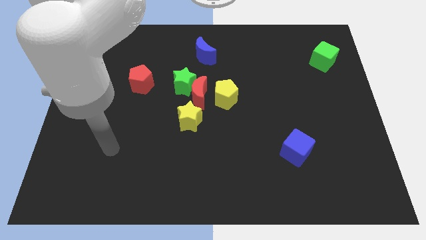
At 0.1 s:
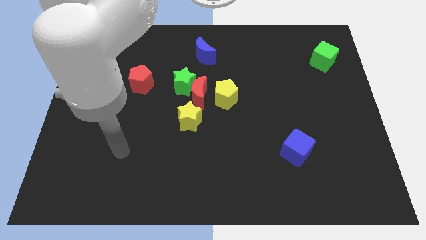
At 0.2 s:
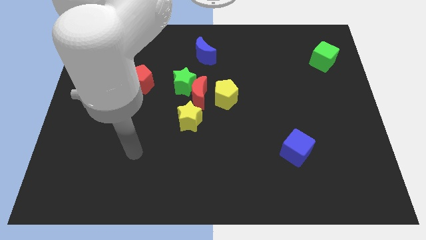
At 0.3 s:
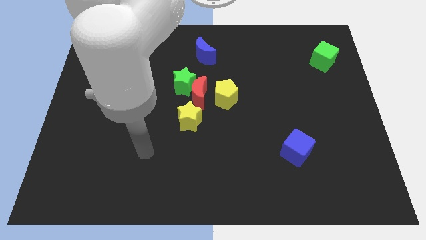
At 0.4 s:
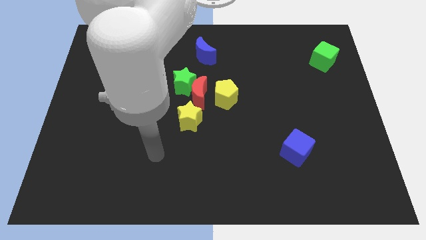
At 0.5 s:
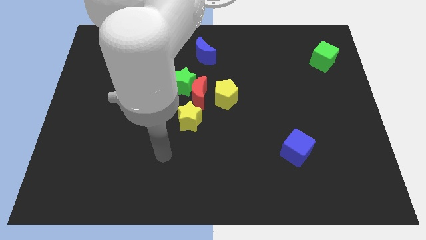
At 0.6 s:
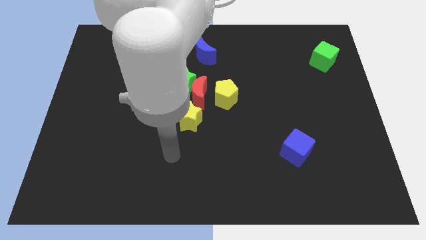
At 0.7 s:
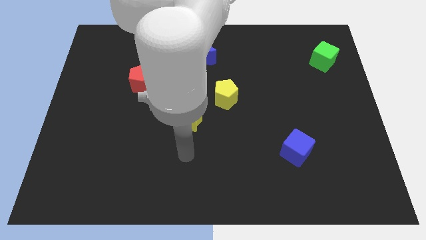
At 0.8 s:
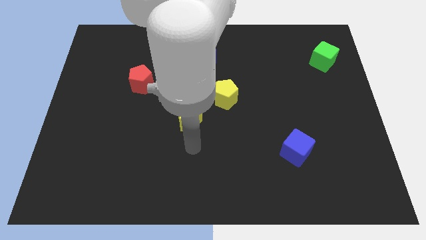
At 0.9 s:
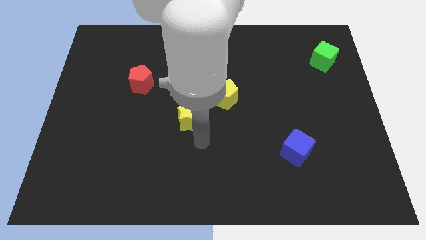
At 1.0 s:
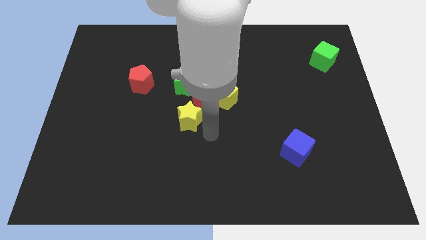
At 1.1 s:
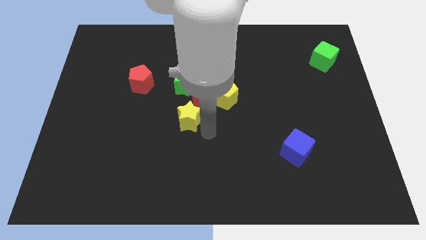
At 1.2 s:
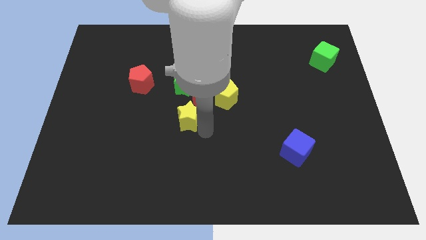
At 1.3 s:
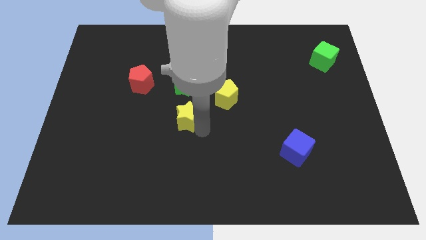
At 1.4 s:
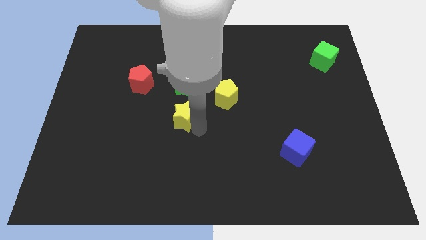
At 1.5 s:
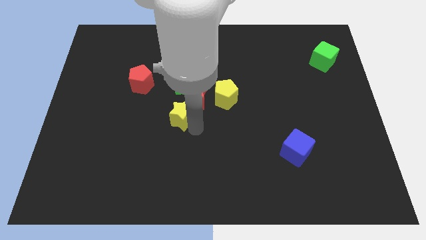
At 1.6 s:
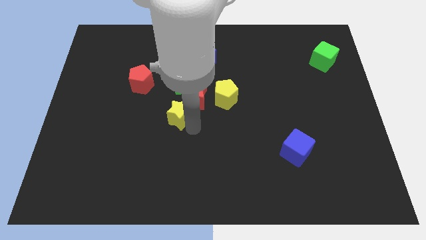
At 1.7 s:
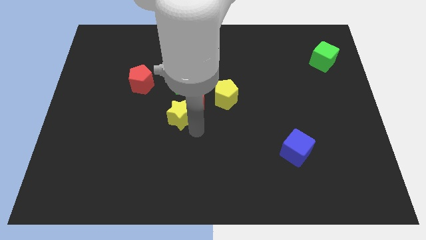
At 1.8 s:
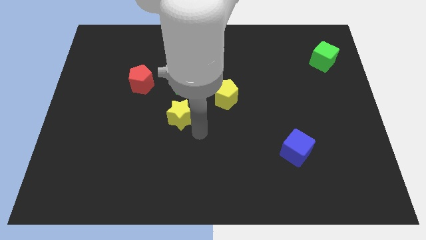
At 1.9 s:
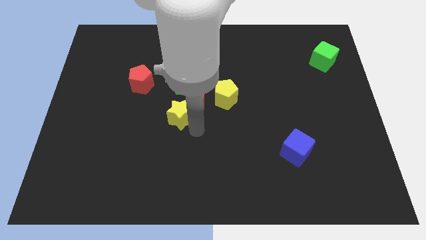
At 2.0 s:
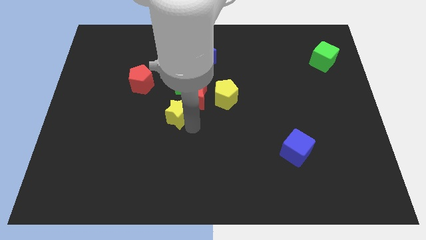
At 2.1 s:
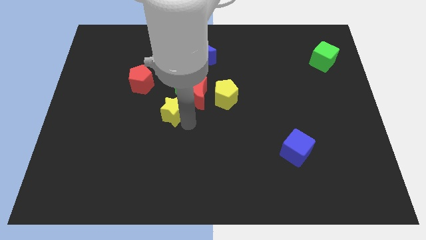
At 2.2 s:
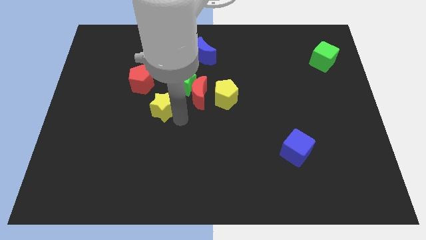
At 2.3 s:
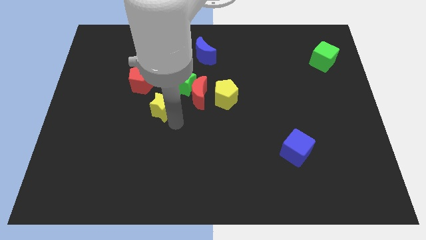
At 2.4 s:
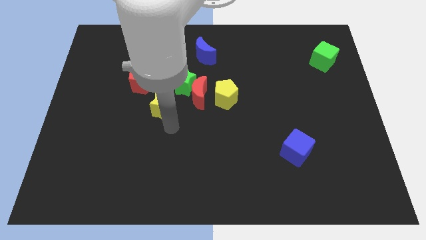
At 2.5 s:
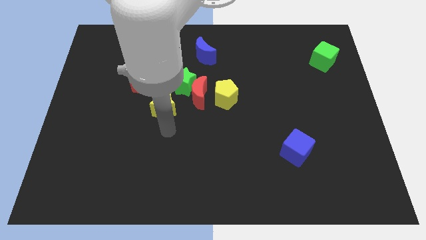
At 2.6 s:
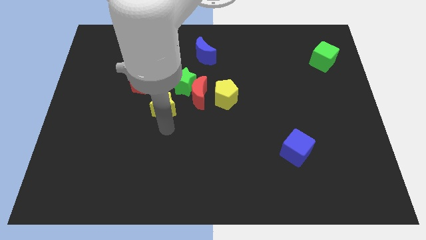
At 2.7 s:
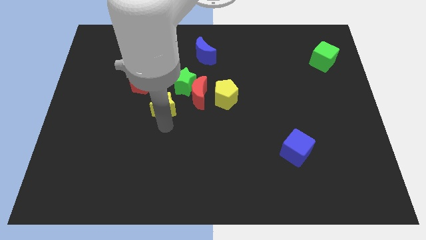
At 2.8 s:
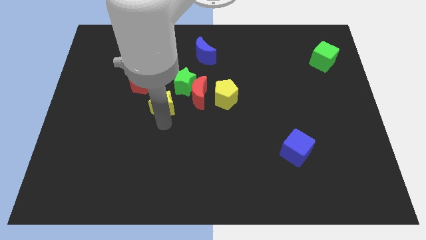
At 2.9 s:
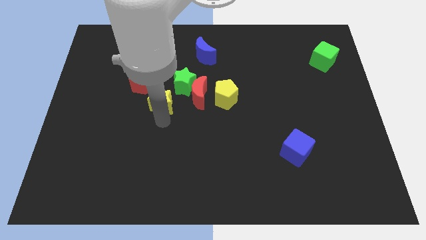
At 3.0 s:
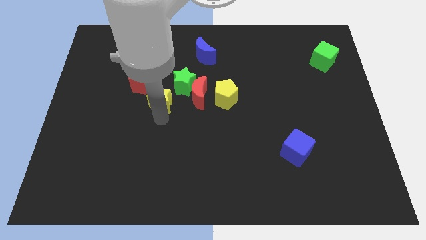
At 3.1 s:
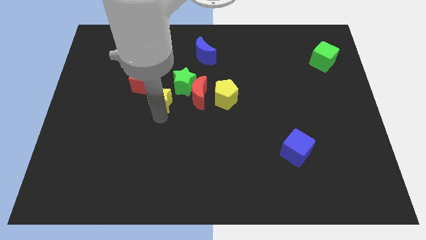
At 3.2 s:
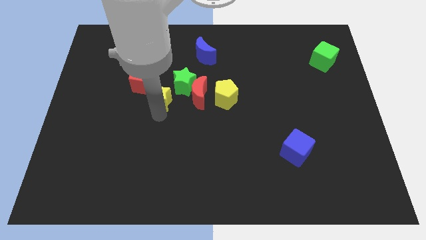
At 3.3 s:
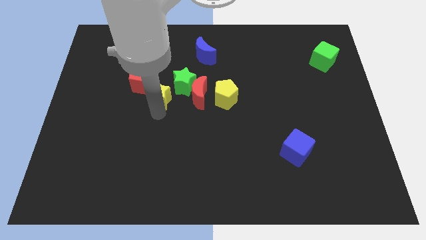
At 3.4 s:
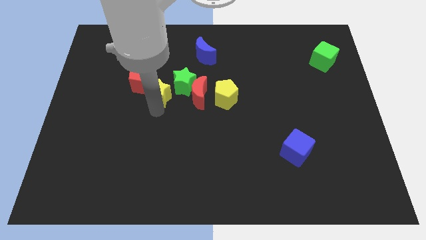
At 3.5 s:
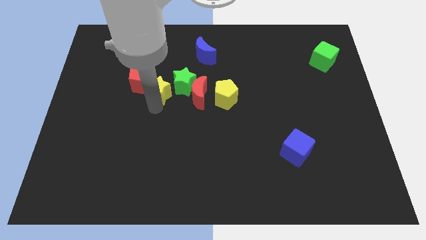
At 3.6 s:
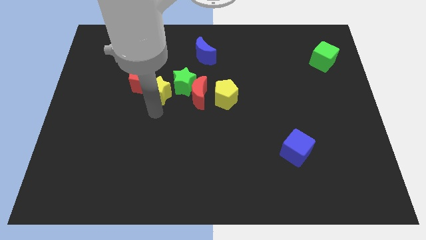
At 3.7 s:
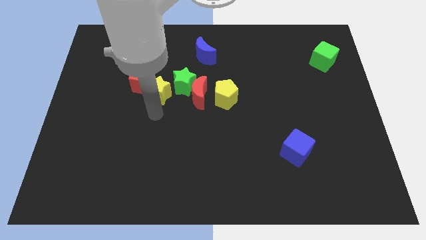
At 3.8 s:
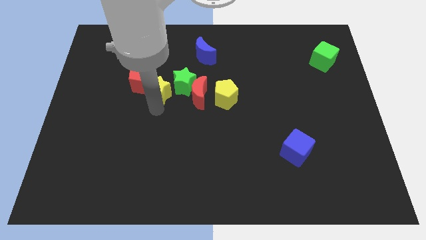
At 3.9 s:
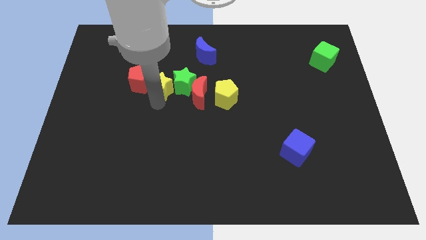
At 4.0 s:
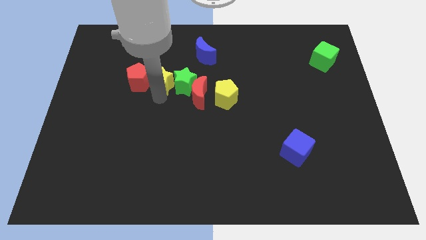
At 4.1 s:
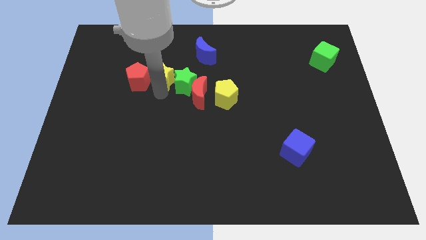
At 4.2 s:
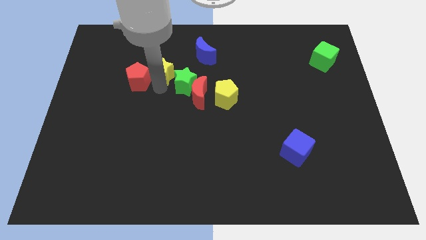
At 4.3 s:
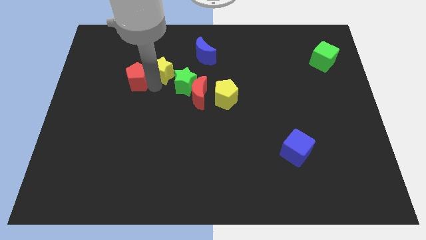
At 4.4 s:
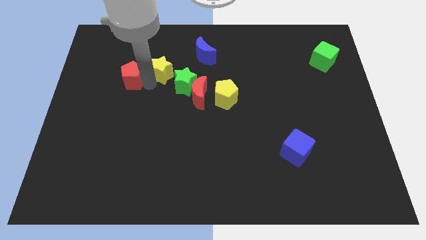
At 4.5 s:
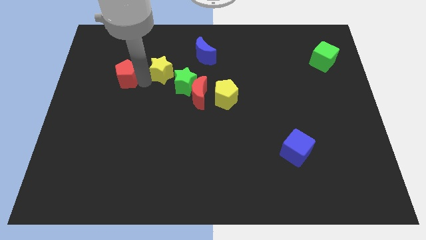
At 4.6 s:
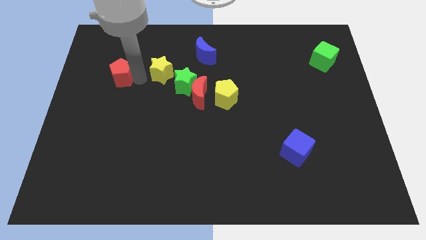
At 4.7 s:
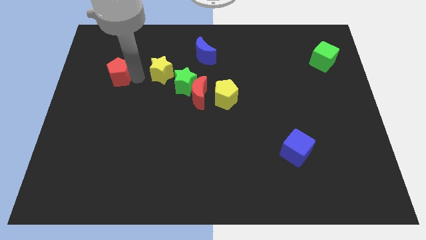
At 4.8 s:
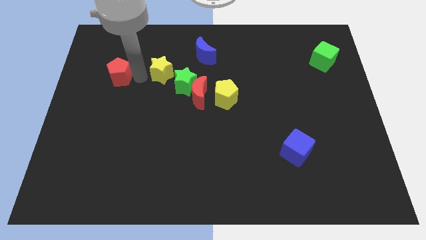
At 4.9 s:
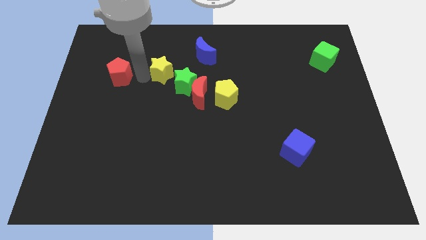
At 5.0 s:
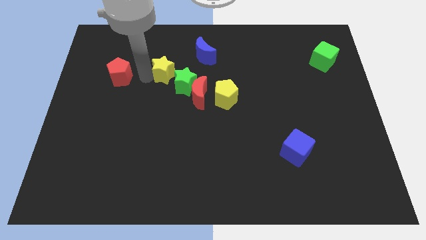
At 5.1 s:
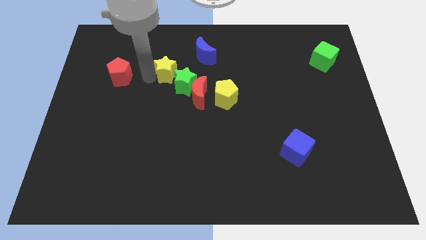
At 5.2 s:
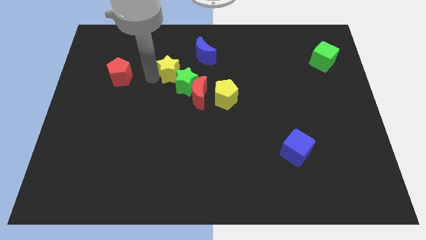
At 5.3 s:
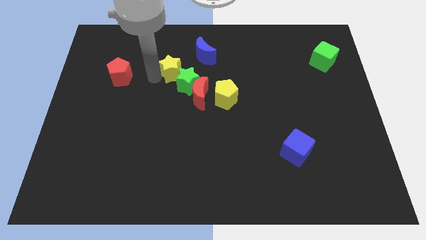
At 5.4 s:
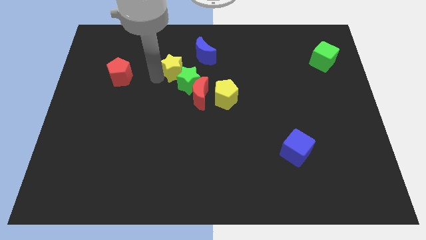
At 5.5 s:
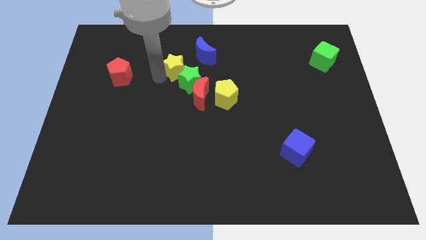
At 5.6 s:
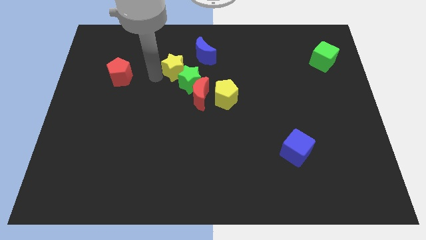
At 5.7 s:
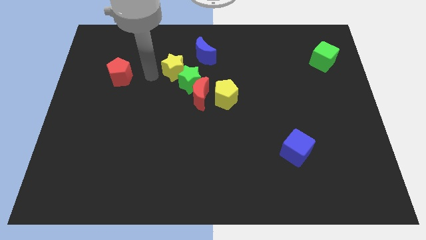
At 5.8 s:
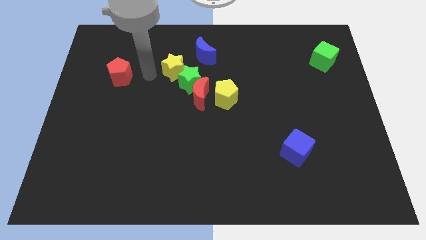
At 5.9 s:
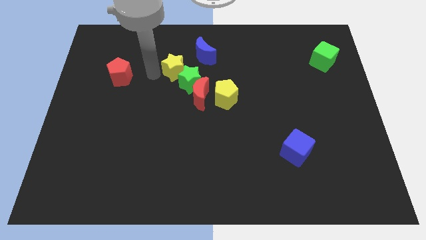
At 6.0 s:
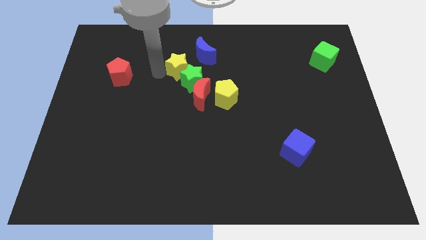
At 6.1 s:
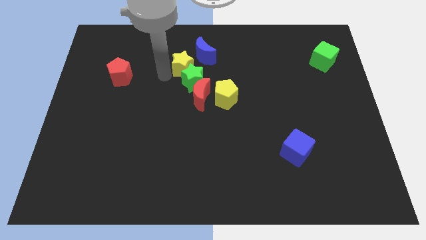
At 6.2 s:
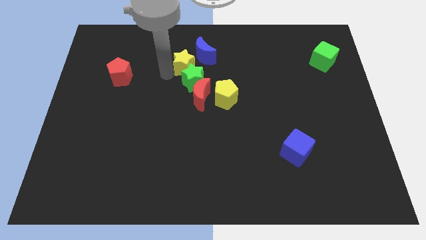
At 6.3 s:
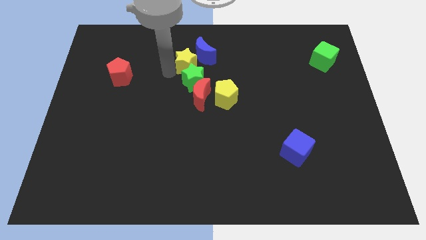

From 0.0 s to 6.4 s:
move the yellow star next to the blue moon

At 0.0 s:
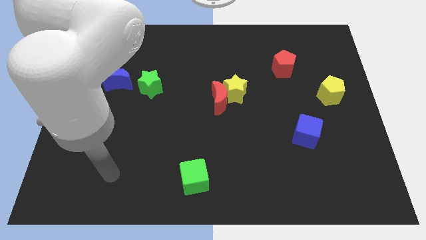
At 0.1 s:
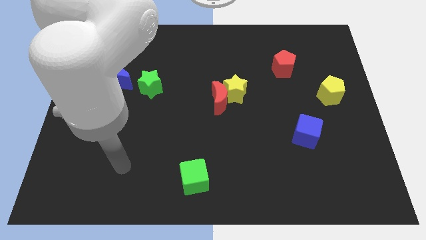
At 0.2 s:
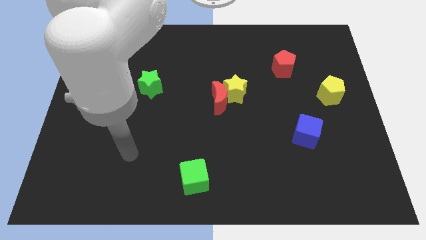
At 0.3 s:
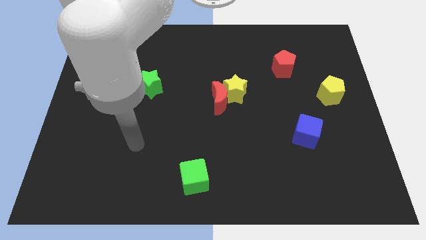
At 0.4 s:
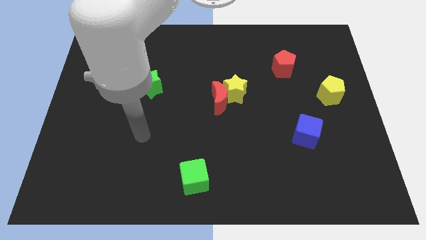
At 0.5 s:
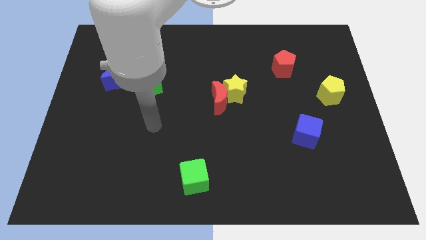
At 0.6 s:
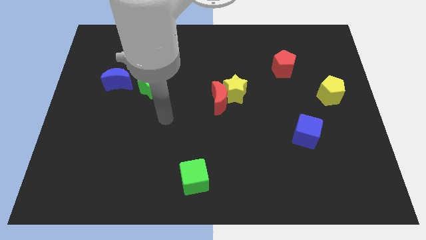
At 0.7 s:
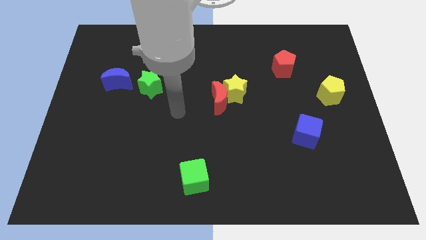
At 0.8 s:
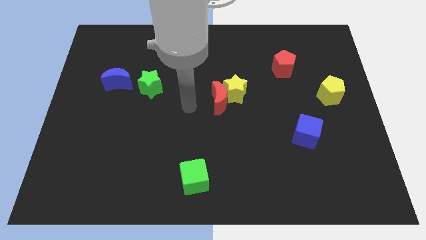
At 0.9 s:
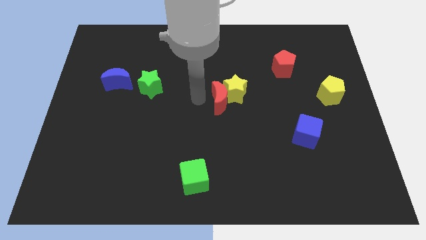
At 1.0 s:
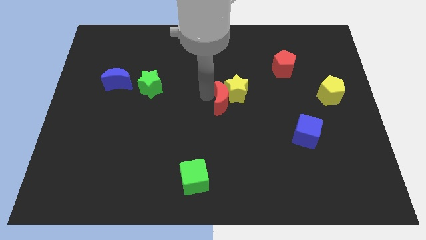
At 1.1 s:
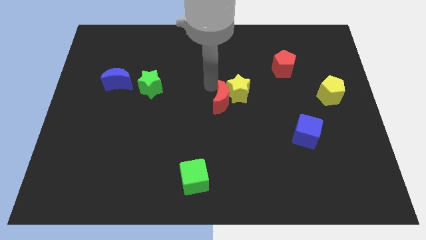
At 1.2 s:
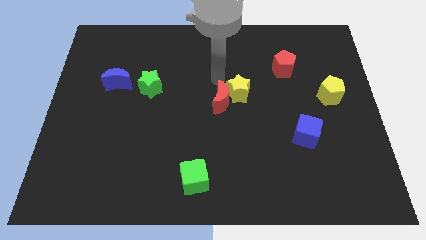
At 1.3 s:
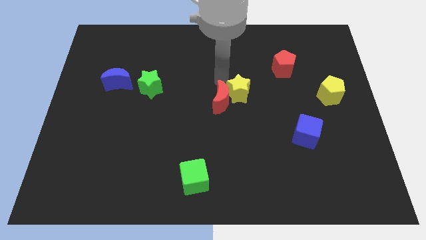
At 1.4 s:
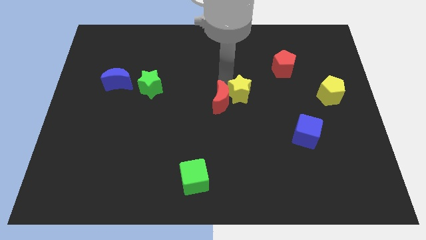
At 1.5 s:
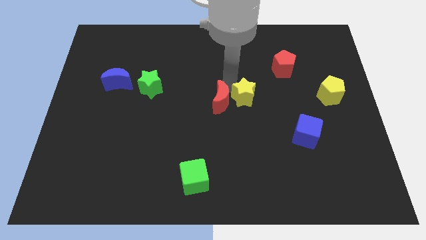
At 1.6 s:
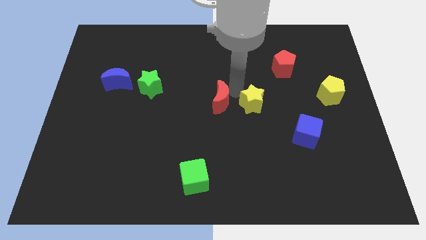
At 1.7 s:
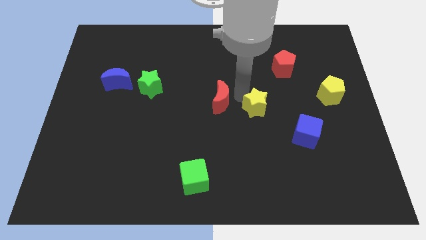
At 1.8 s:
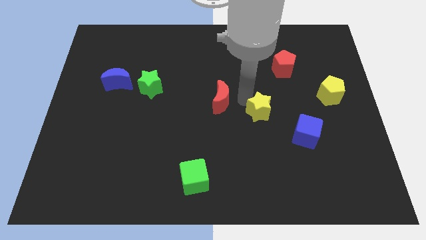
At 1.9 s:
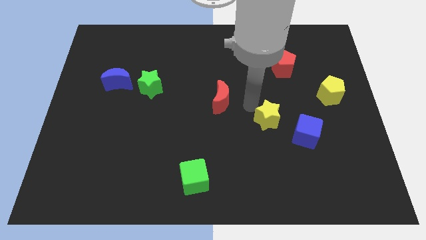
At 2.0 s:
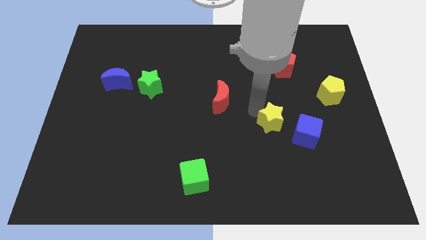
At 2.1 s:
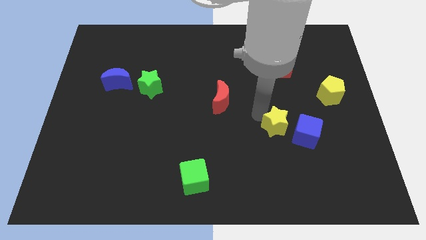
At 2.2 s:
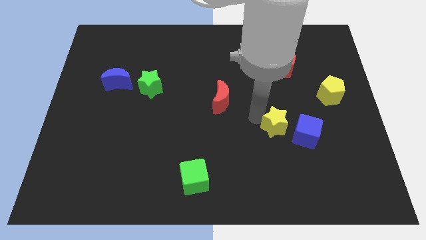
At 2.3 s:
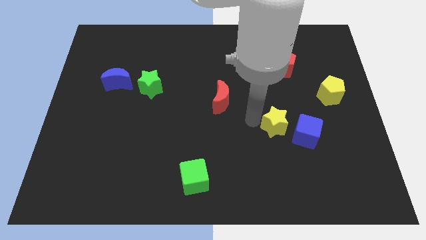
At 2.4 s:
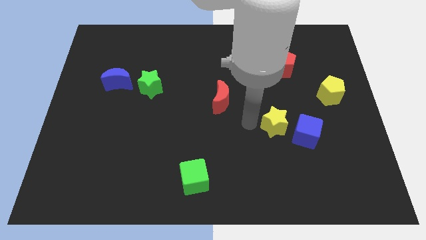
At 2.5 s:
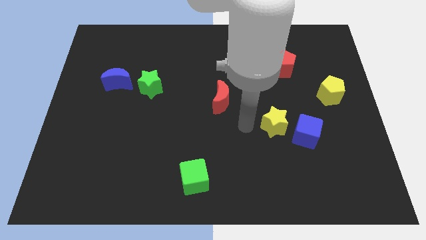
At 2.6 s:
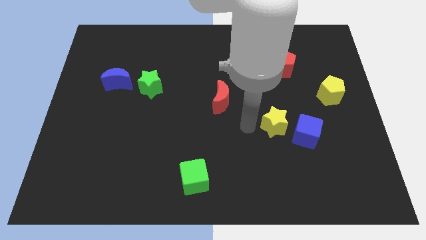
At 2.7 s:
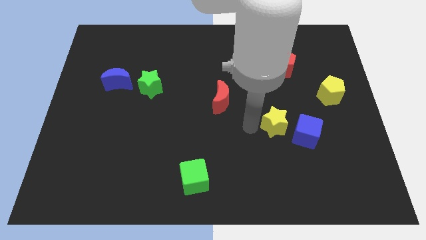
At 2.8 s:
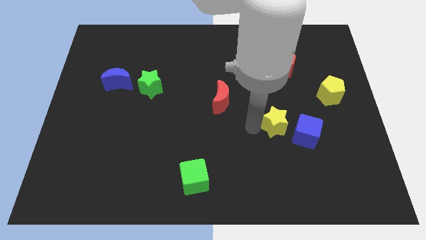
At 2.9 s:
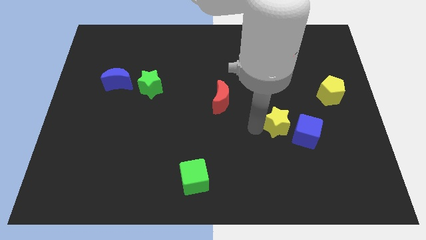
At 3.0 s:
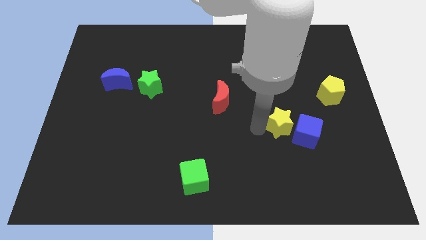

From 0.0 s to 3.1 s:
move the yellow star next to the blue cube
